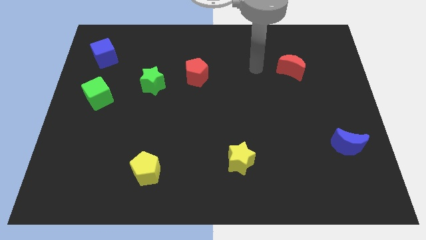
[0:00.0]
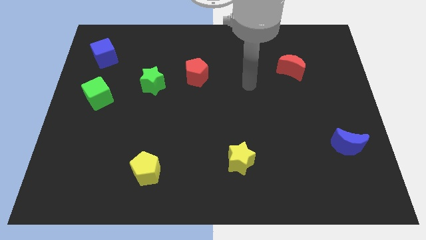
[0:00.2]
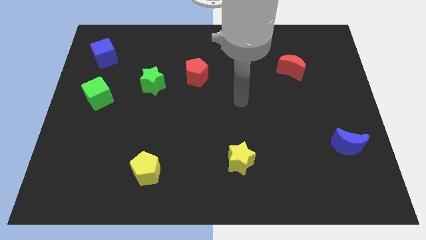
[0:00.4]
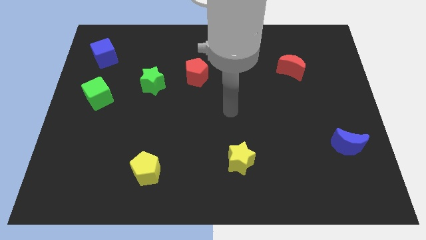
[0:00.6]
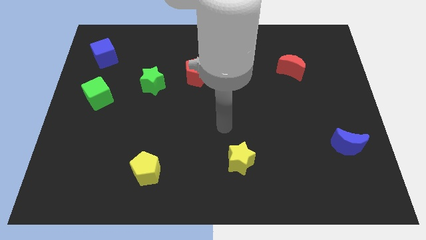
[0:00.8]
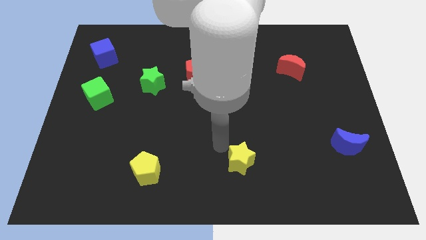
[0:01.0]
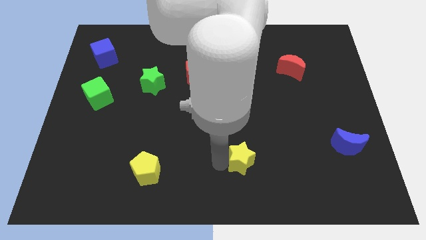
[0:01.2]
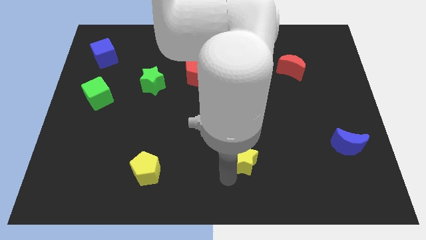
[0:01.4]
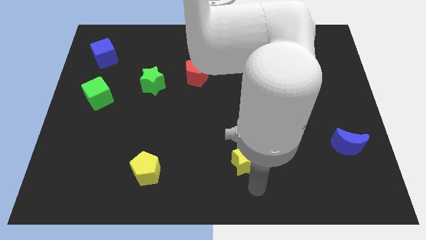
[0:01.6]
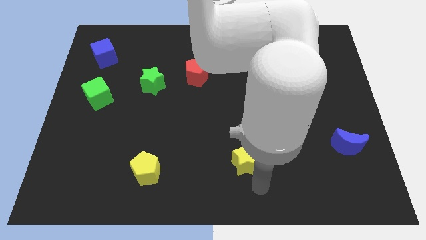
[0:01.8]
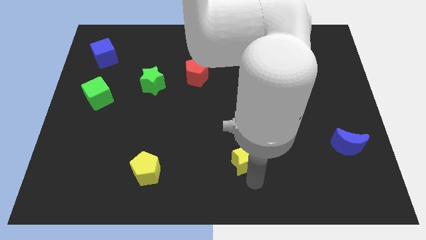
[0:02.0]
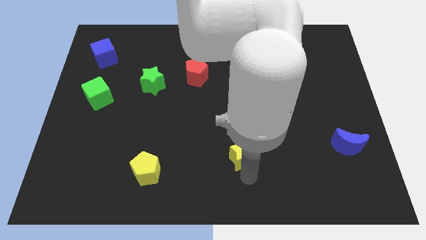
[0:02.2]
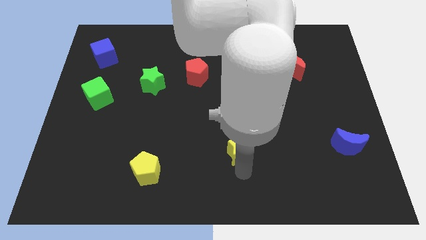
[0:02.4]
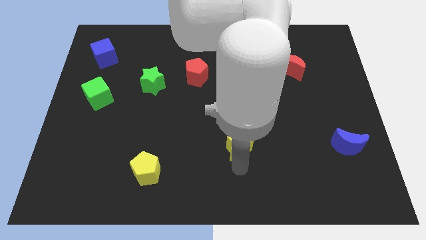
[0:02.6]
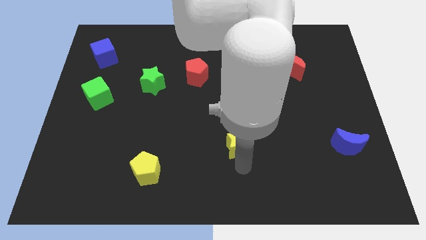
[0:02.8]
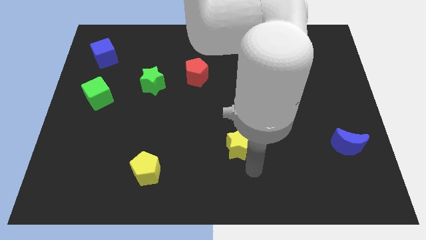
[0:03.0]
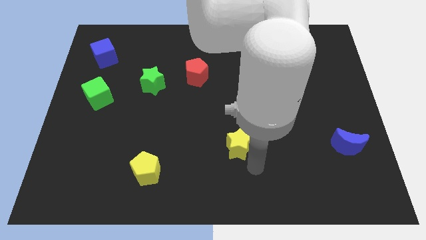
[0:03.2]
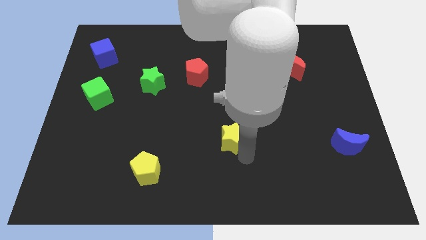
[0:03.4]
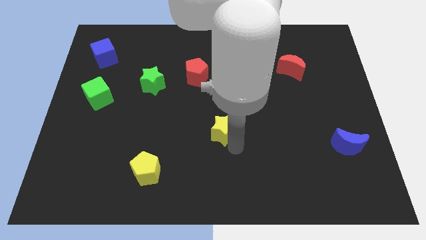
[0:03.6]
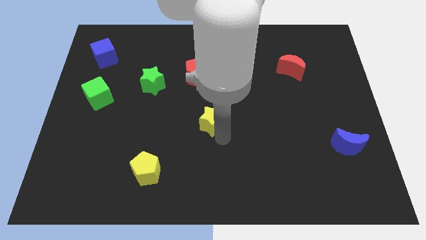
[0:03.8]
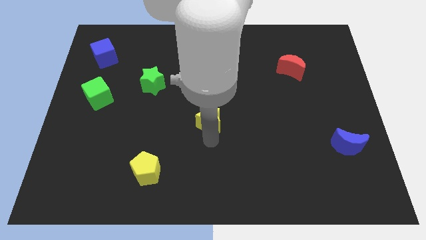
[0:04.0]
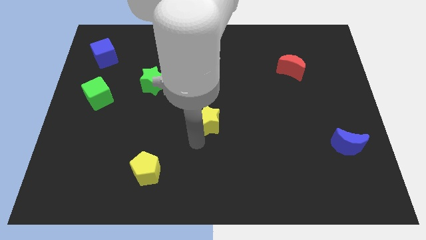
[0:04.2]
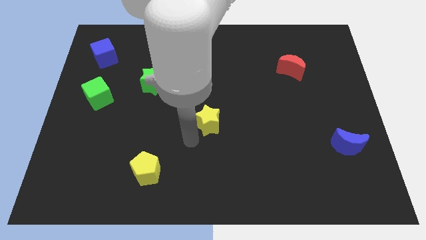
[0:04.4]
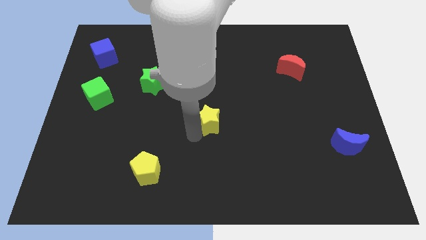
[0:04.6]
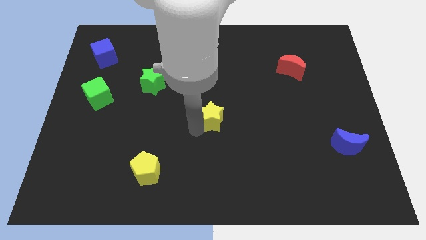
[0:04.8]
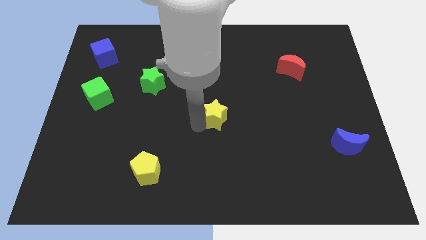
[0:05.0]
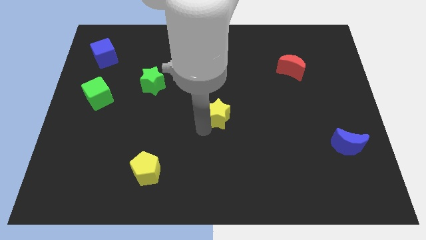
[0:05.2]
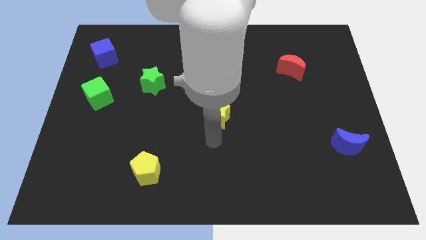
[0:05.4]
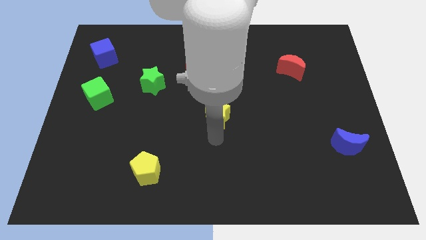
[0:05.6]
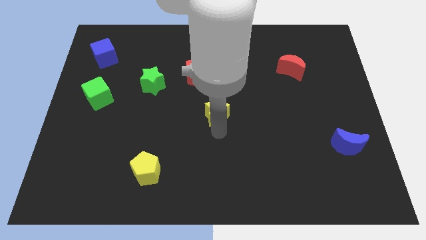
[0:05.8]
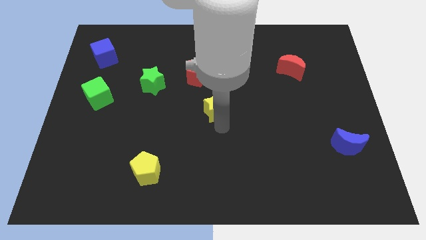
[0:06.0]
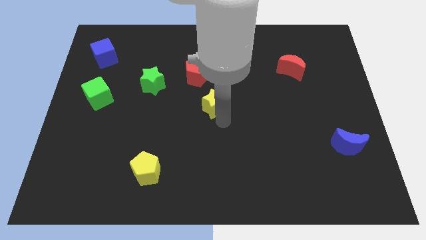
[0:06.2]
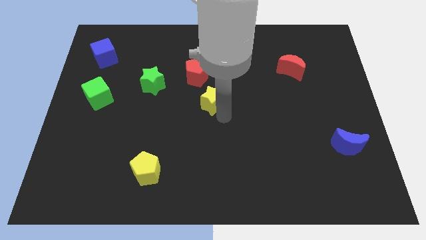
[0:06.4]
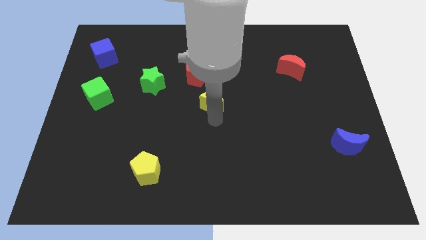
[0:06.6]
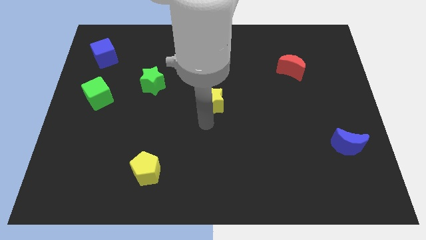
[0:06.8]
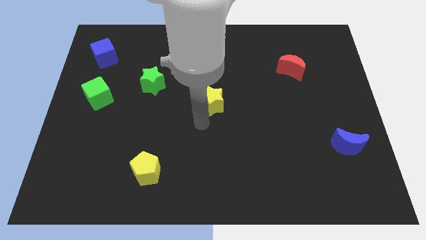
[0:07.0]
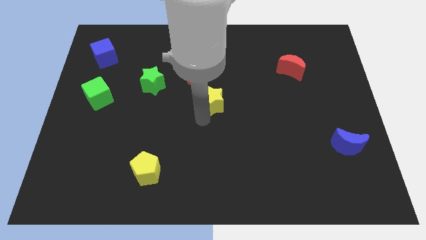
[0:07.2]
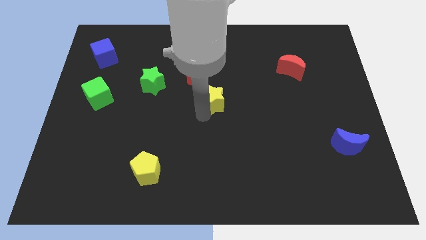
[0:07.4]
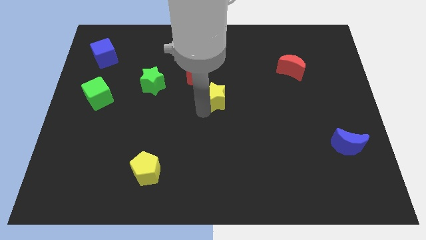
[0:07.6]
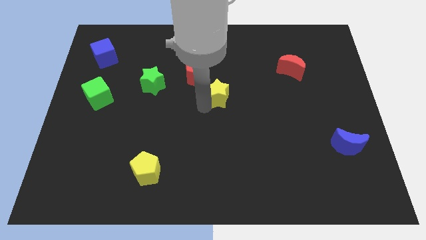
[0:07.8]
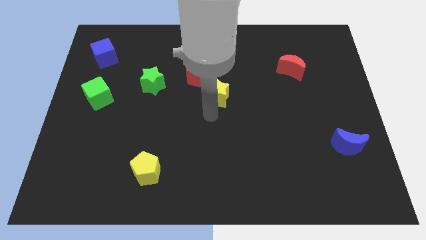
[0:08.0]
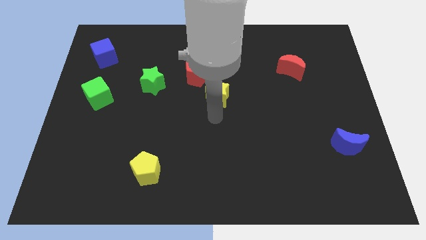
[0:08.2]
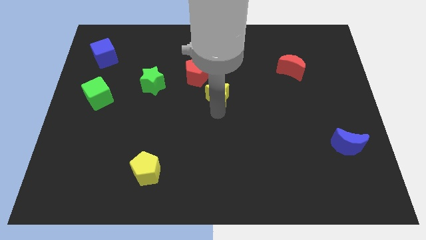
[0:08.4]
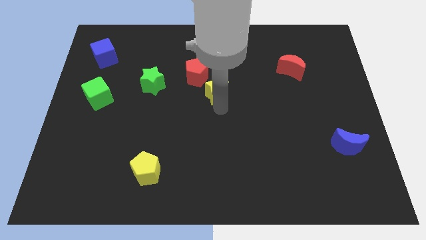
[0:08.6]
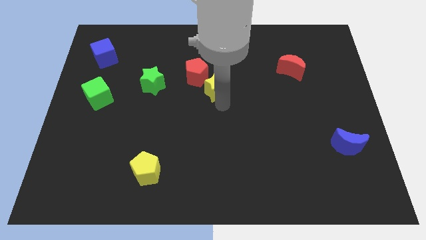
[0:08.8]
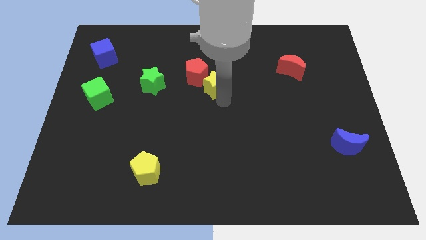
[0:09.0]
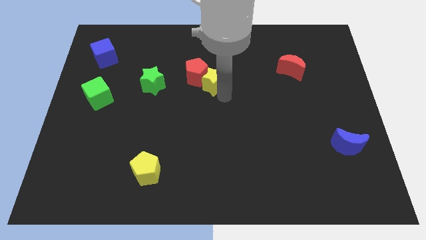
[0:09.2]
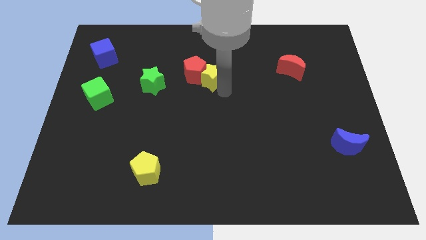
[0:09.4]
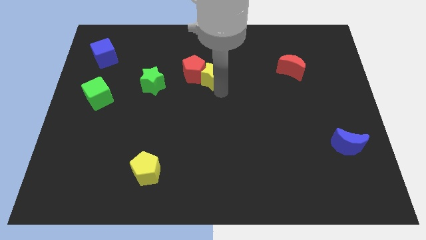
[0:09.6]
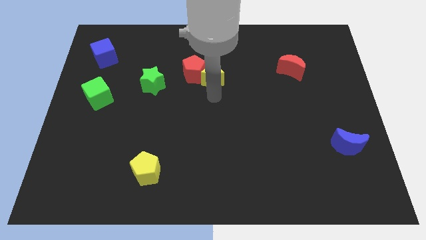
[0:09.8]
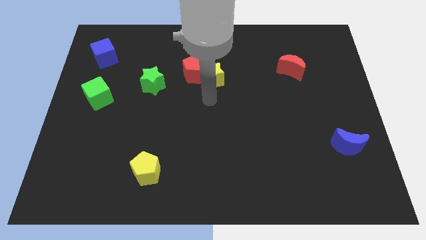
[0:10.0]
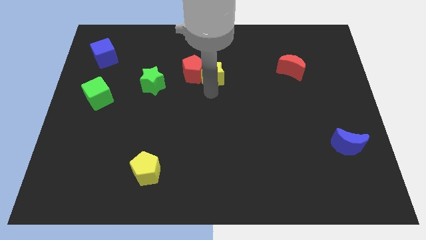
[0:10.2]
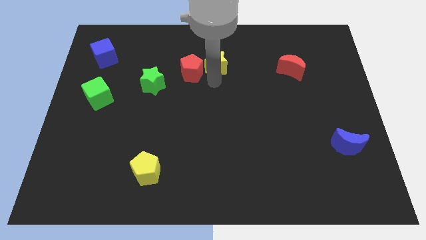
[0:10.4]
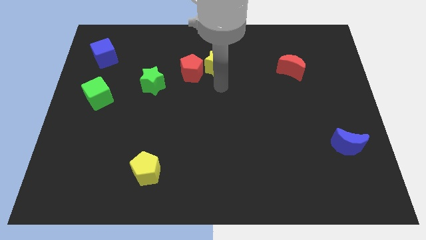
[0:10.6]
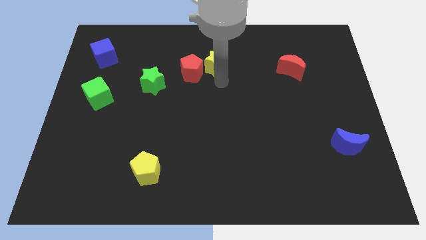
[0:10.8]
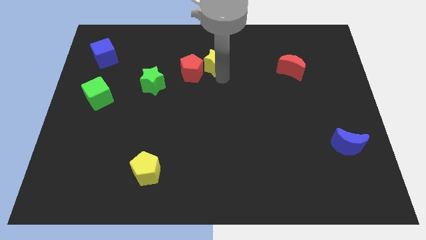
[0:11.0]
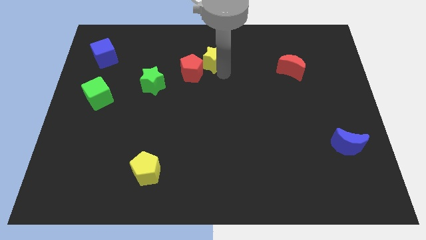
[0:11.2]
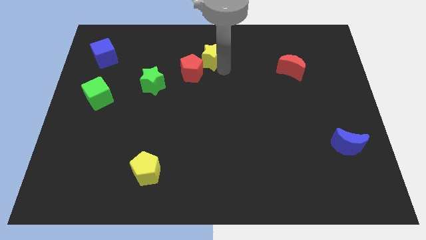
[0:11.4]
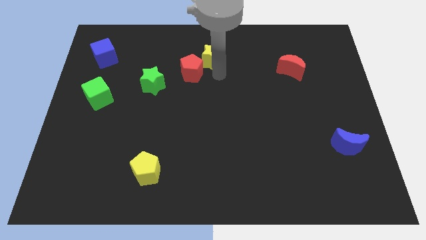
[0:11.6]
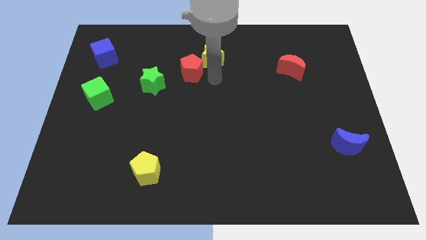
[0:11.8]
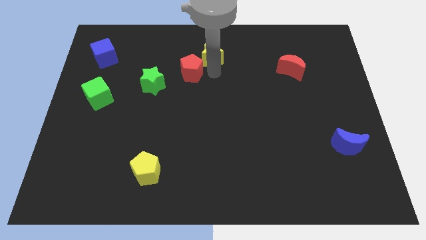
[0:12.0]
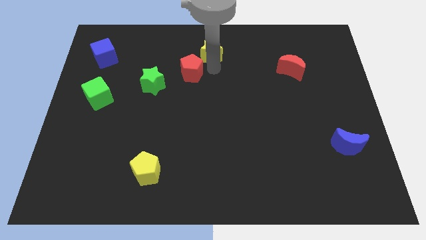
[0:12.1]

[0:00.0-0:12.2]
slide the yellow star to the top

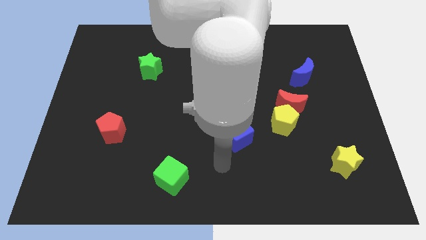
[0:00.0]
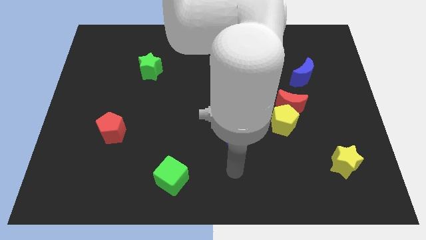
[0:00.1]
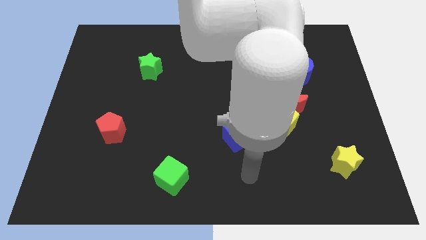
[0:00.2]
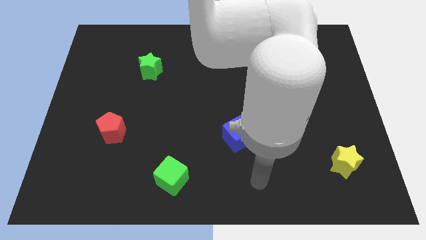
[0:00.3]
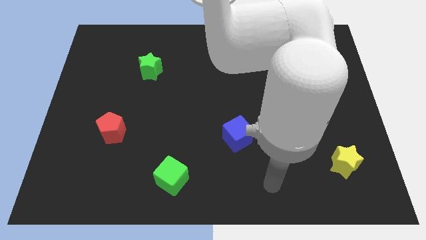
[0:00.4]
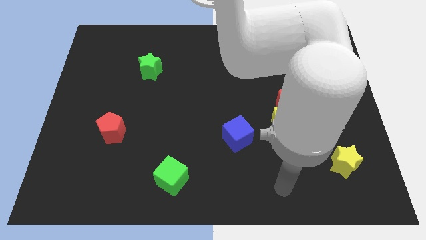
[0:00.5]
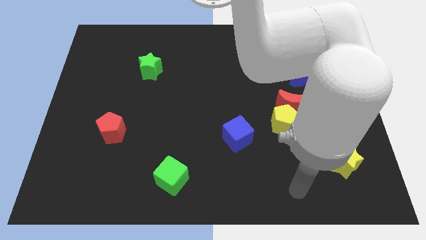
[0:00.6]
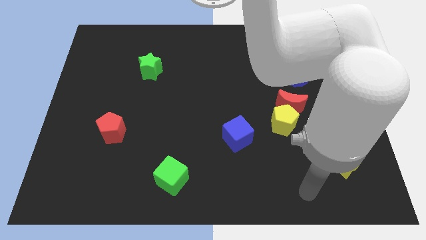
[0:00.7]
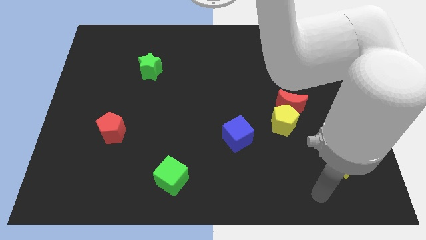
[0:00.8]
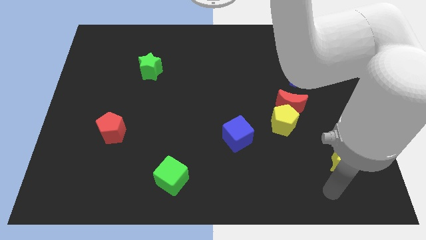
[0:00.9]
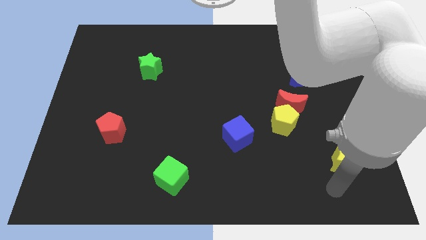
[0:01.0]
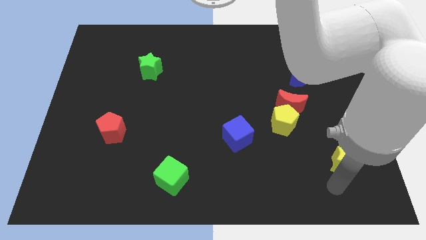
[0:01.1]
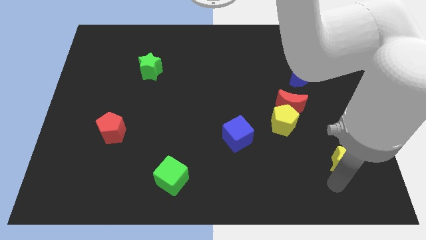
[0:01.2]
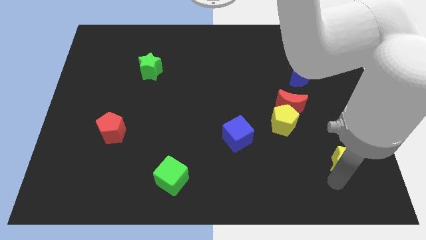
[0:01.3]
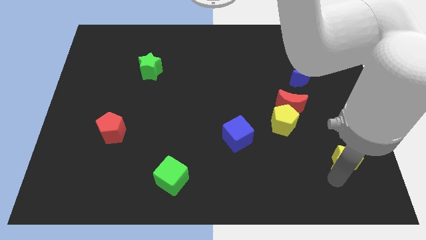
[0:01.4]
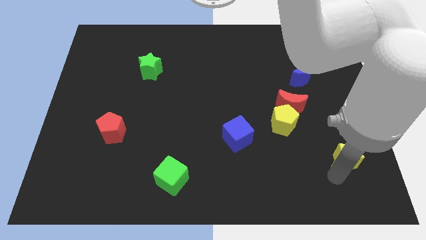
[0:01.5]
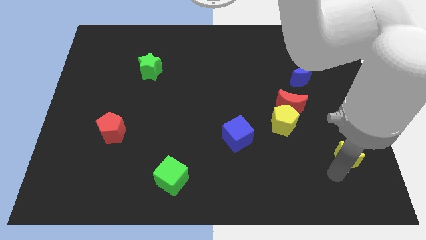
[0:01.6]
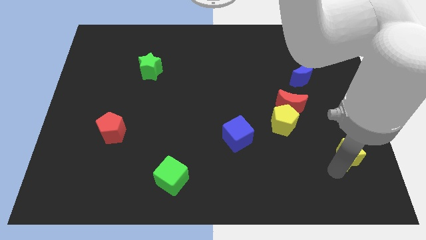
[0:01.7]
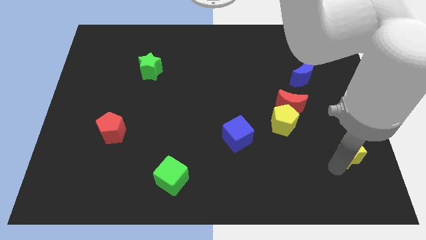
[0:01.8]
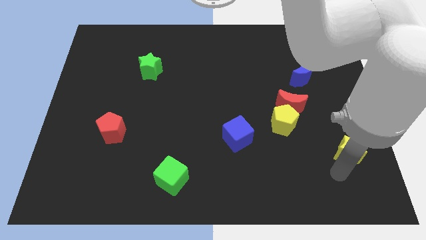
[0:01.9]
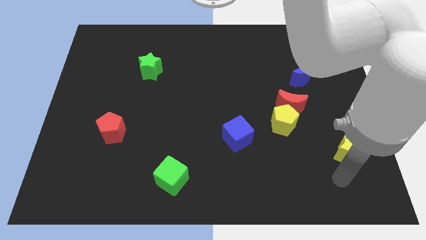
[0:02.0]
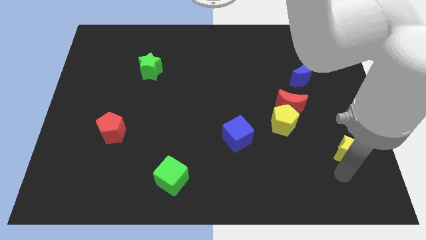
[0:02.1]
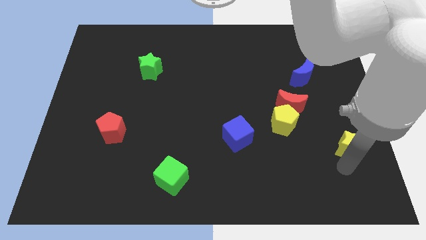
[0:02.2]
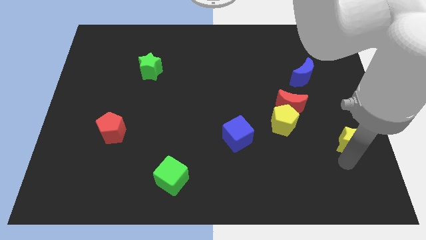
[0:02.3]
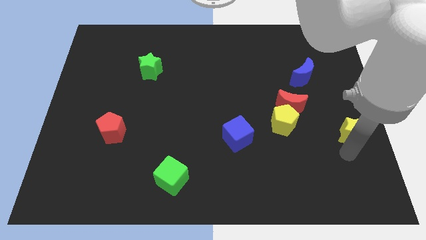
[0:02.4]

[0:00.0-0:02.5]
slide the yellow star to the right side of the board
